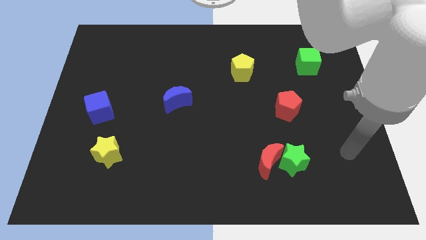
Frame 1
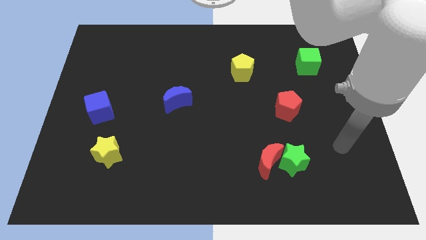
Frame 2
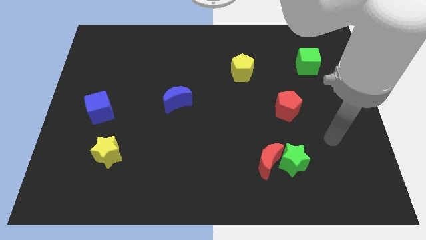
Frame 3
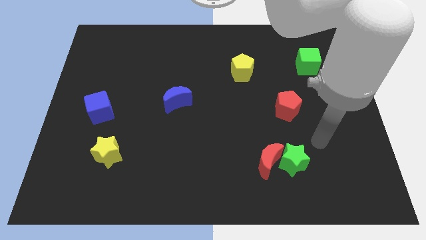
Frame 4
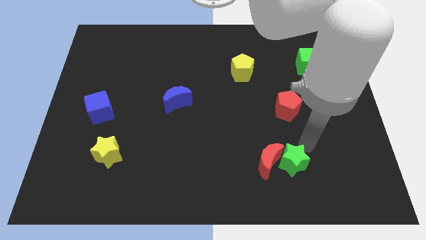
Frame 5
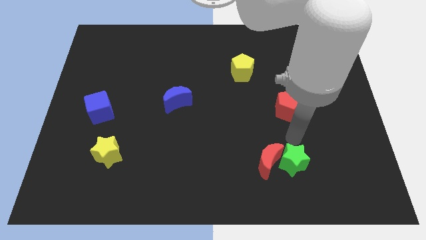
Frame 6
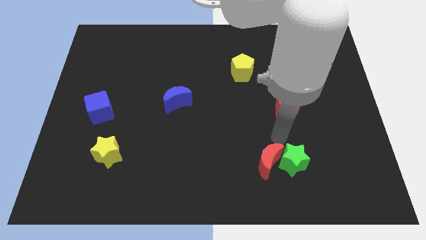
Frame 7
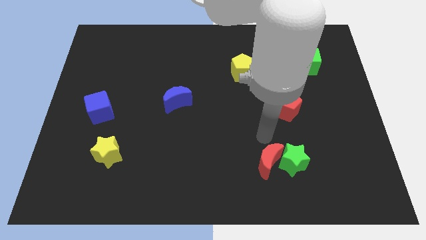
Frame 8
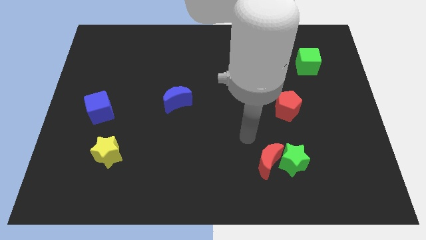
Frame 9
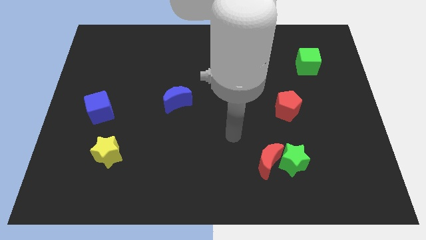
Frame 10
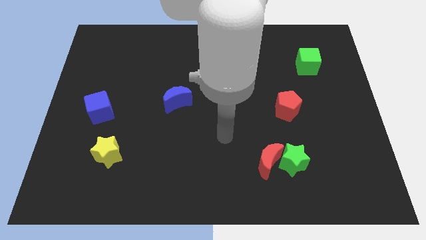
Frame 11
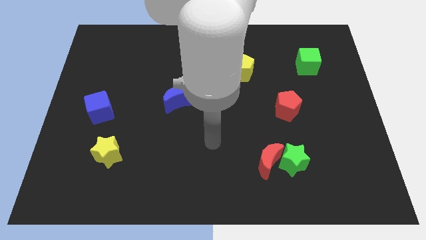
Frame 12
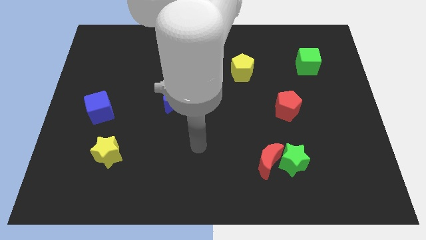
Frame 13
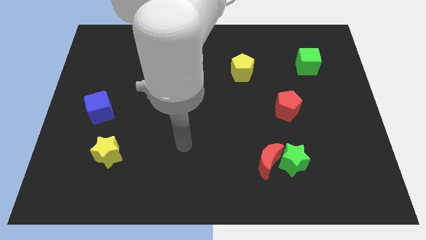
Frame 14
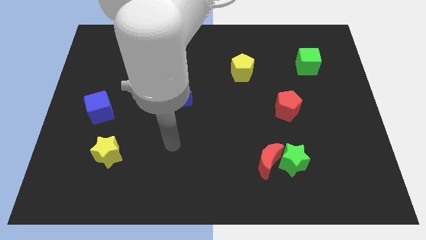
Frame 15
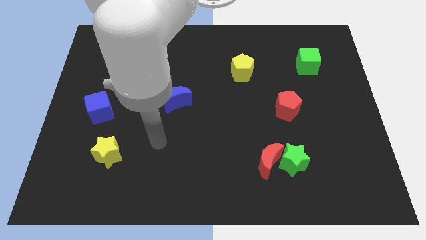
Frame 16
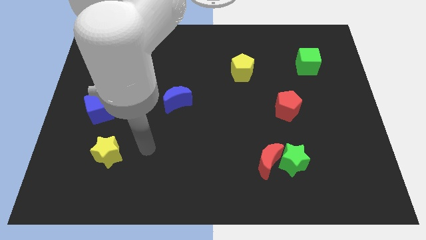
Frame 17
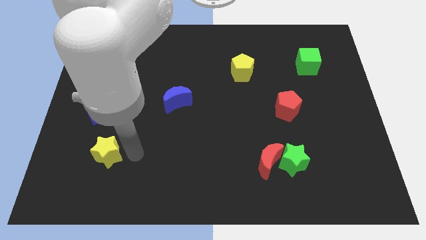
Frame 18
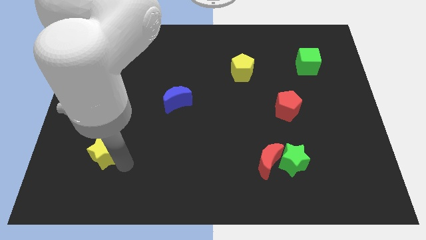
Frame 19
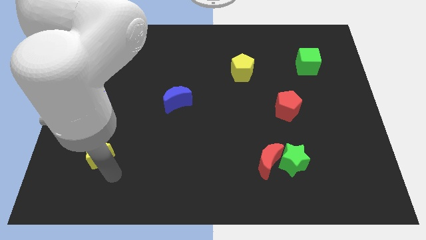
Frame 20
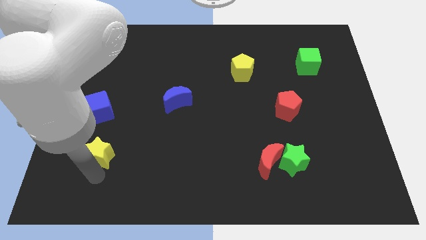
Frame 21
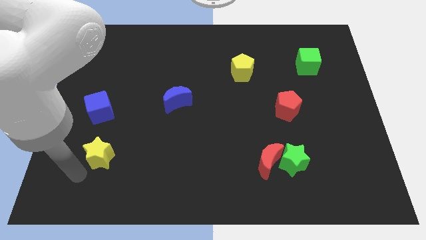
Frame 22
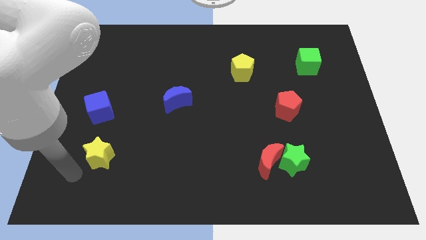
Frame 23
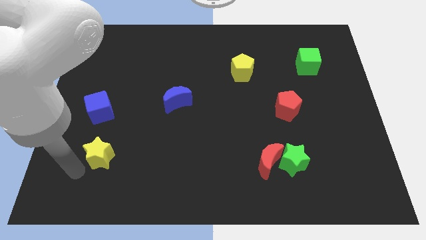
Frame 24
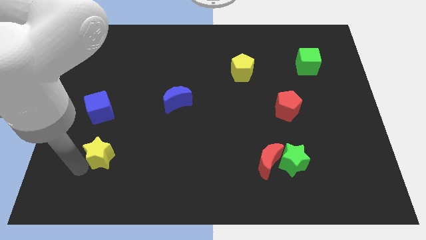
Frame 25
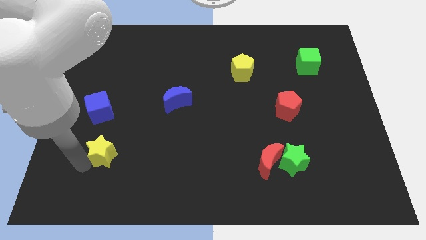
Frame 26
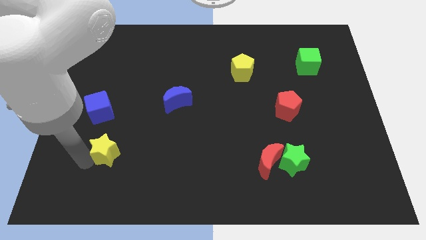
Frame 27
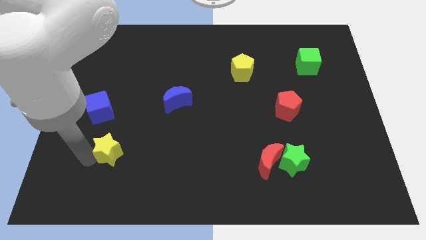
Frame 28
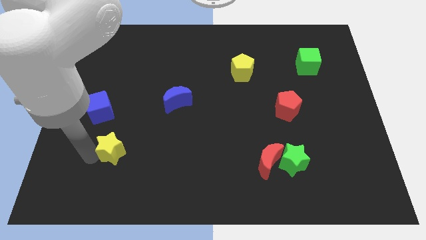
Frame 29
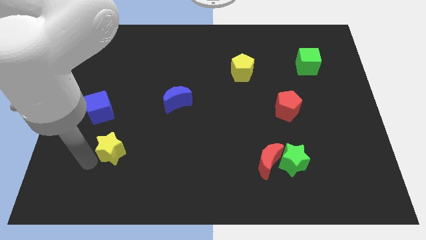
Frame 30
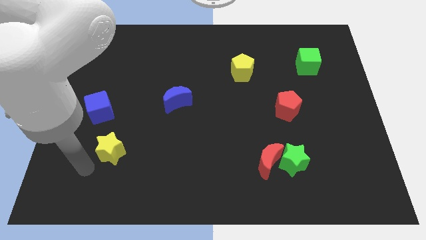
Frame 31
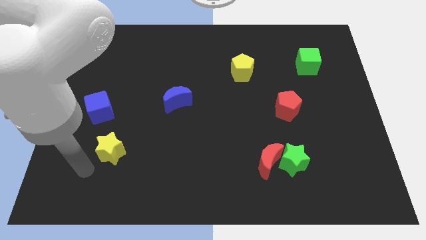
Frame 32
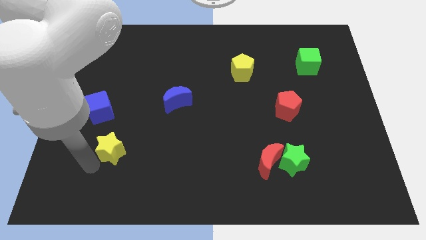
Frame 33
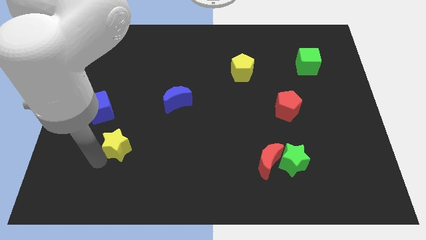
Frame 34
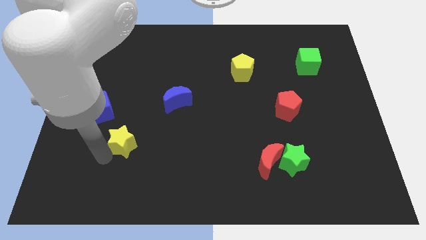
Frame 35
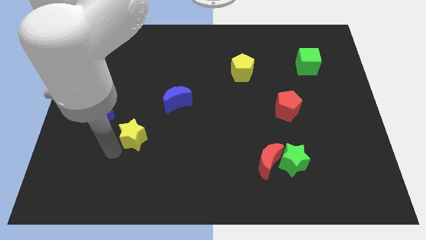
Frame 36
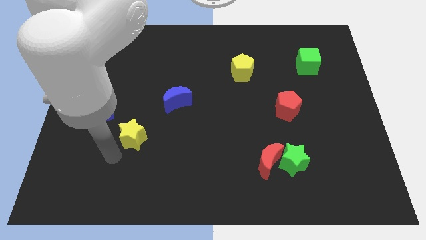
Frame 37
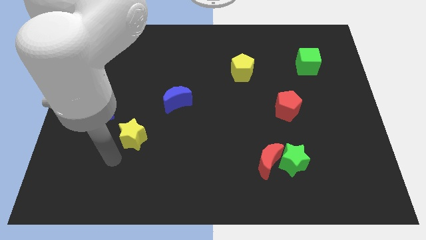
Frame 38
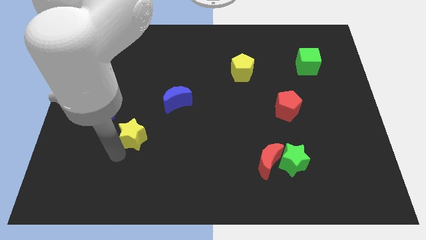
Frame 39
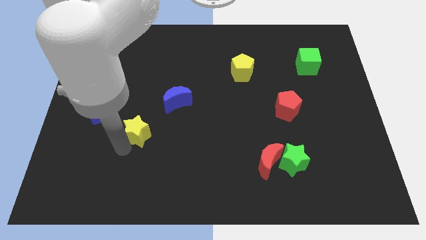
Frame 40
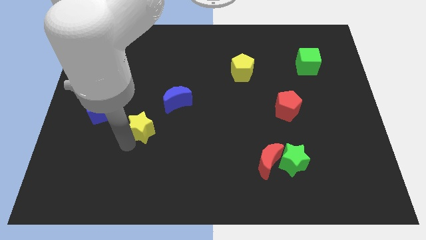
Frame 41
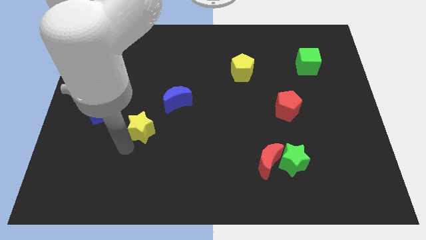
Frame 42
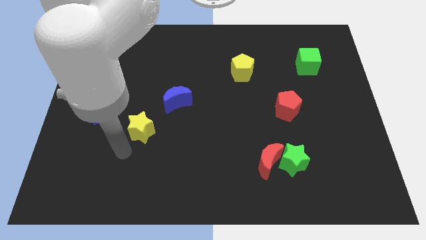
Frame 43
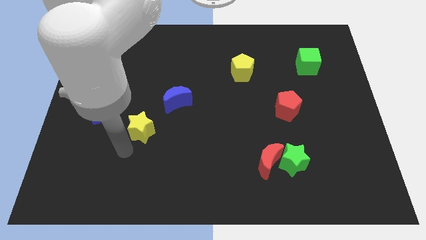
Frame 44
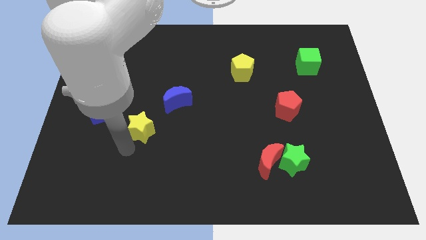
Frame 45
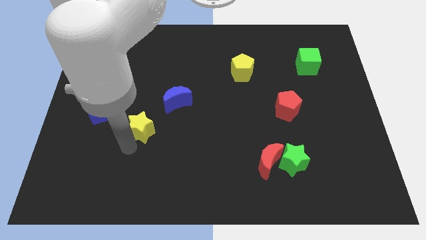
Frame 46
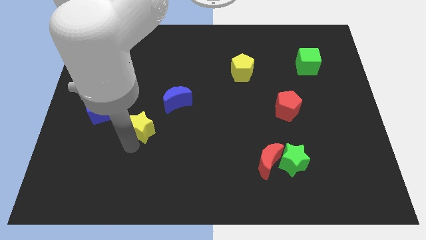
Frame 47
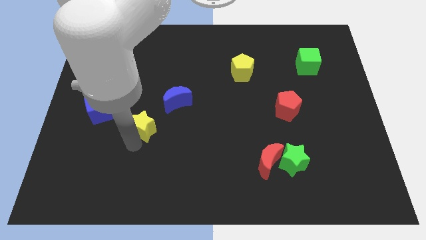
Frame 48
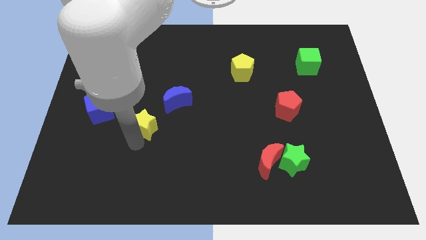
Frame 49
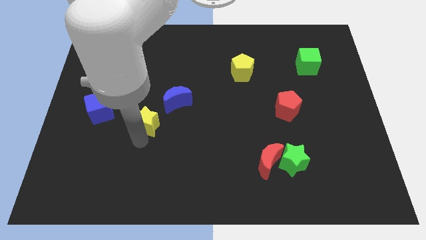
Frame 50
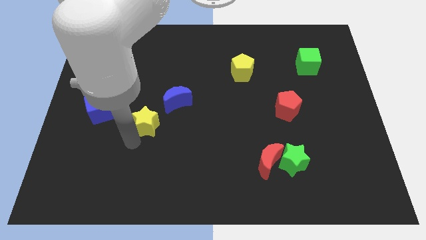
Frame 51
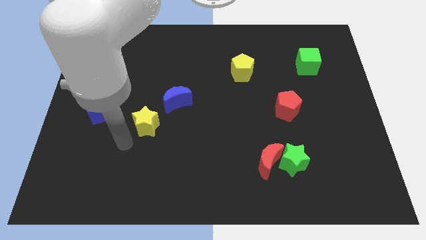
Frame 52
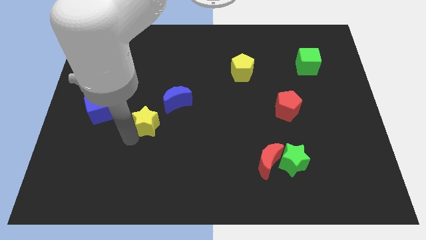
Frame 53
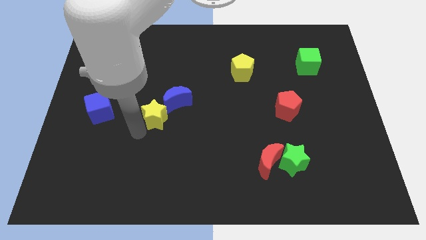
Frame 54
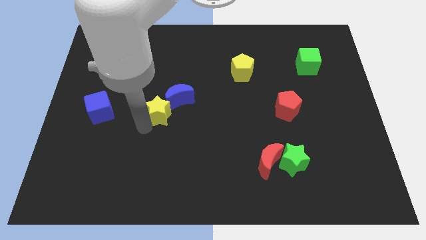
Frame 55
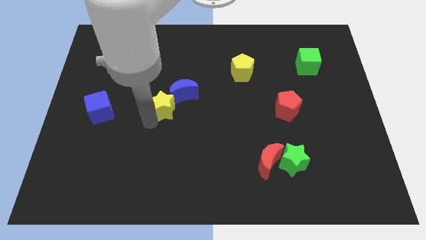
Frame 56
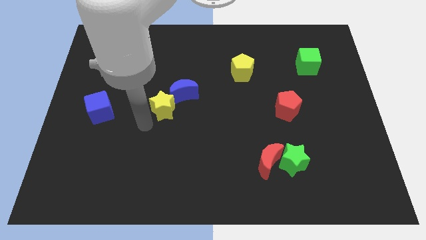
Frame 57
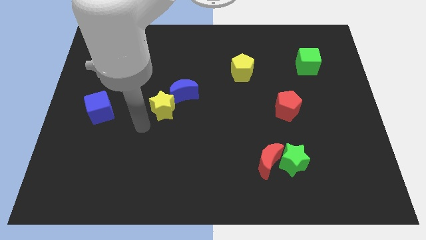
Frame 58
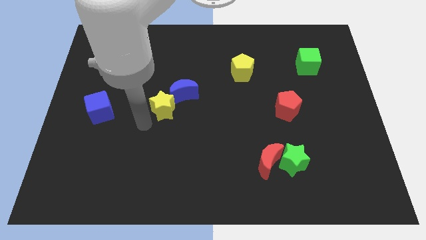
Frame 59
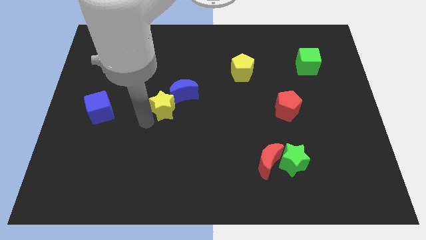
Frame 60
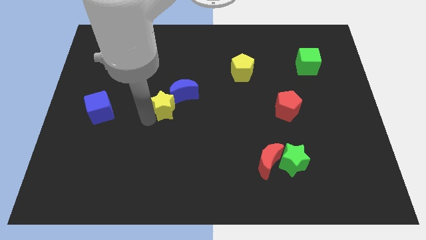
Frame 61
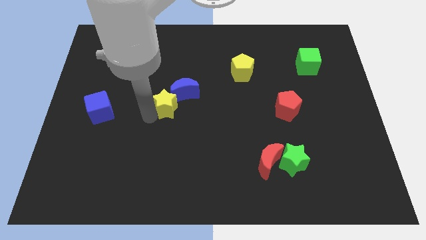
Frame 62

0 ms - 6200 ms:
slide the yellow star towards the blue moon
